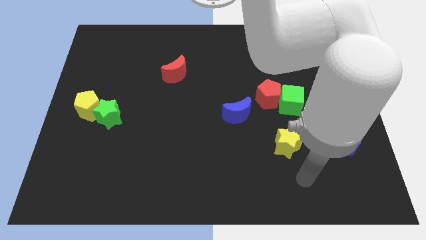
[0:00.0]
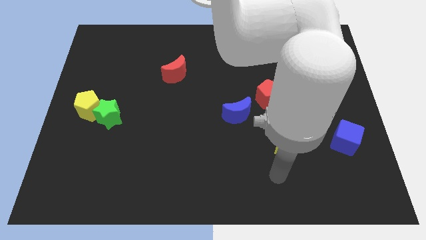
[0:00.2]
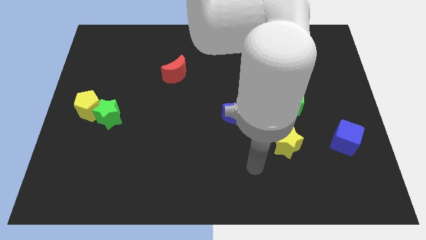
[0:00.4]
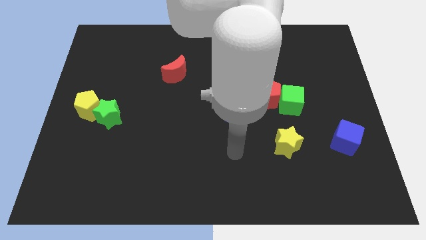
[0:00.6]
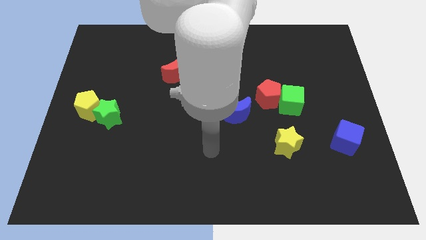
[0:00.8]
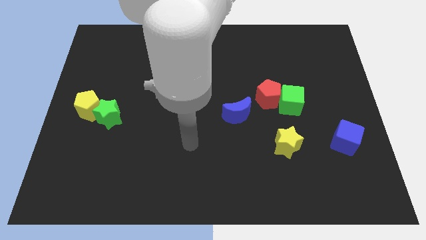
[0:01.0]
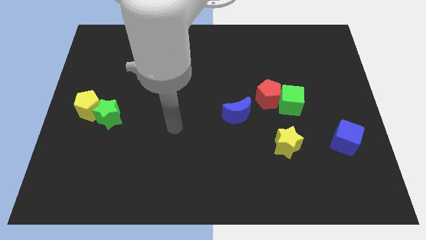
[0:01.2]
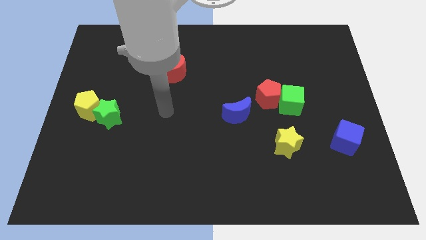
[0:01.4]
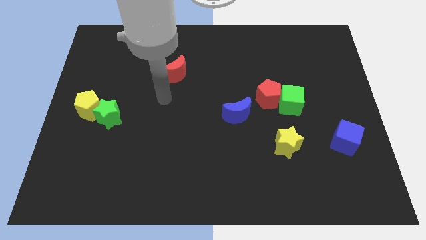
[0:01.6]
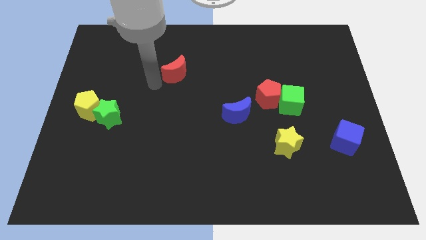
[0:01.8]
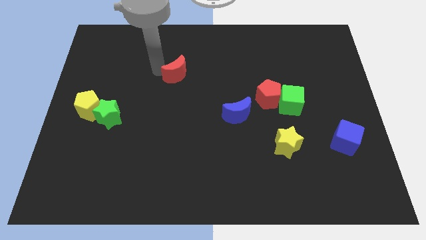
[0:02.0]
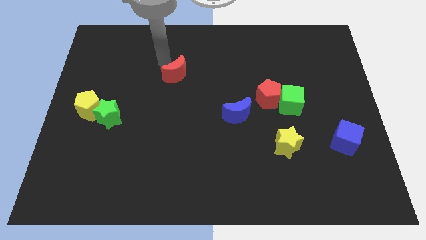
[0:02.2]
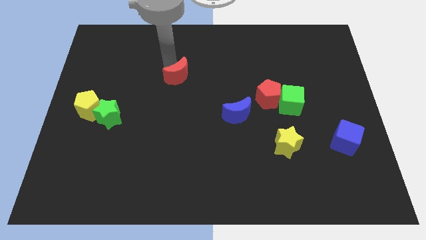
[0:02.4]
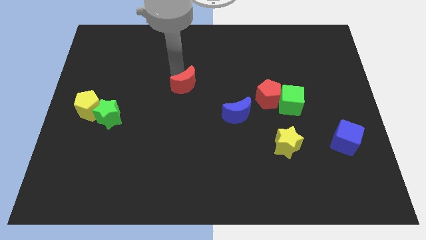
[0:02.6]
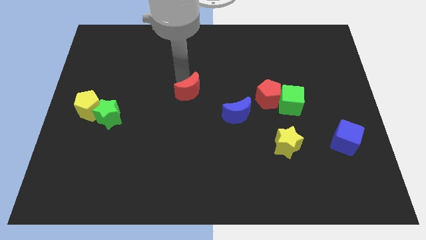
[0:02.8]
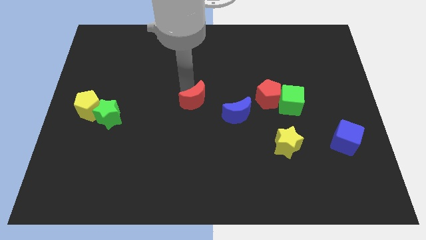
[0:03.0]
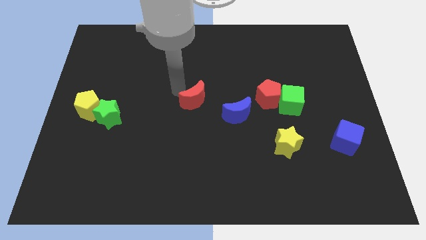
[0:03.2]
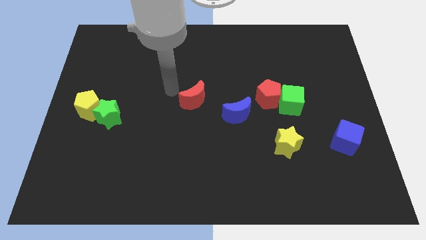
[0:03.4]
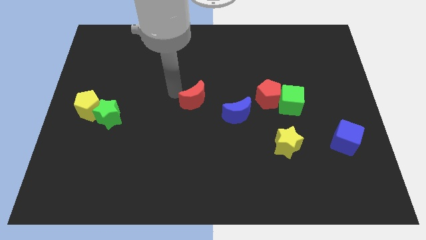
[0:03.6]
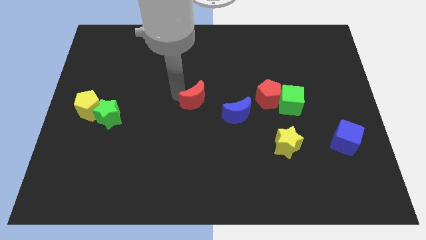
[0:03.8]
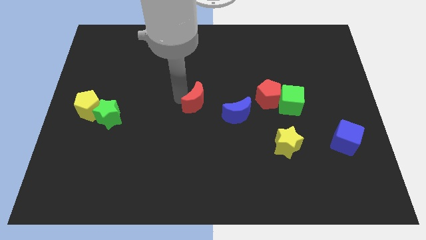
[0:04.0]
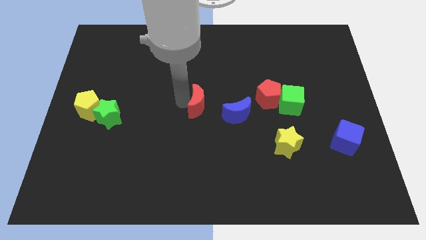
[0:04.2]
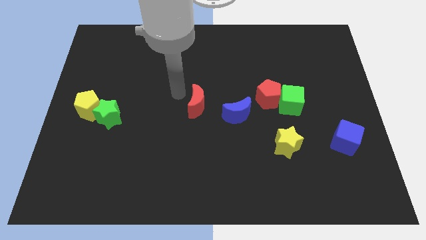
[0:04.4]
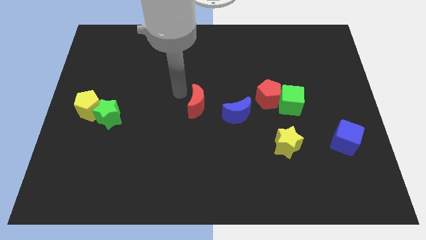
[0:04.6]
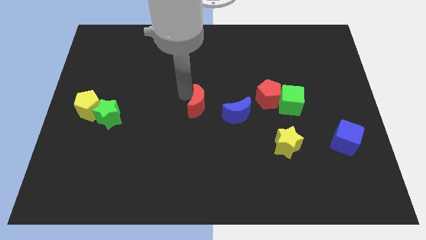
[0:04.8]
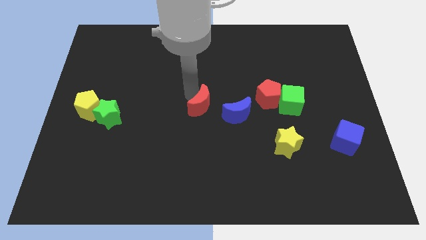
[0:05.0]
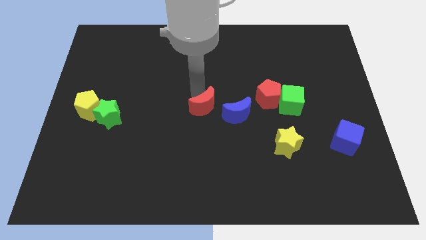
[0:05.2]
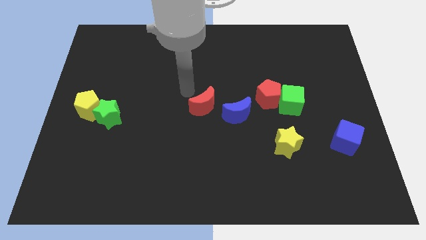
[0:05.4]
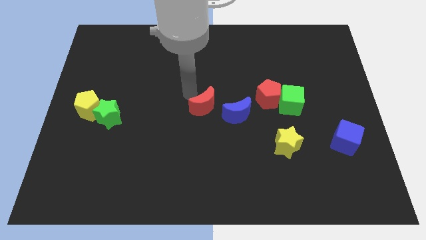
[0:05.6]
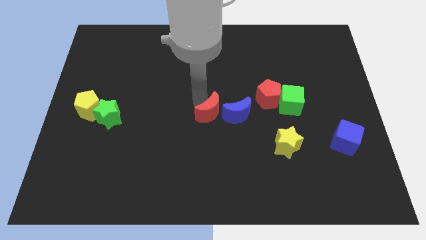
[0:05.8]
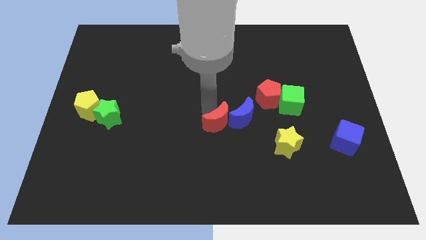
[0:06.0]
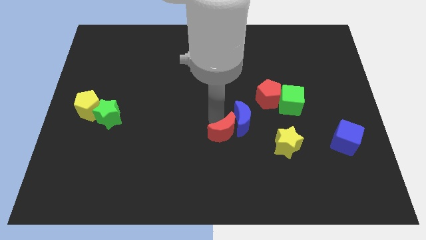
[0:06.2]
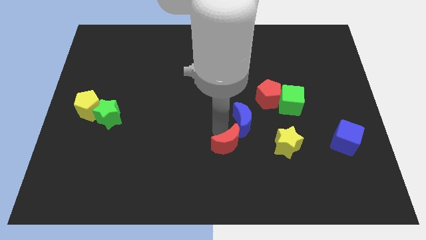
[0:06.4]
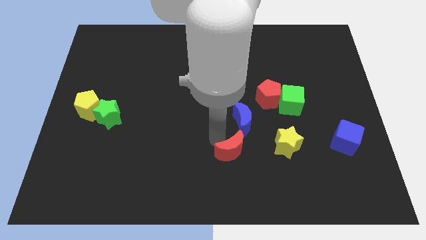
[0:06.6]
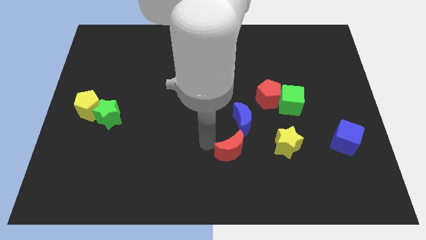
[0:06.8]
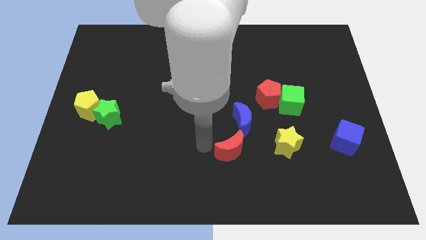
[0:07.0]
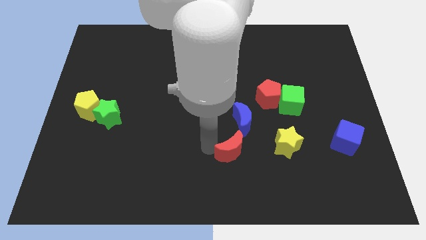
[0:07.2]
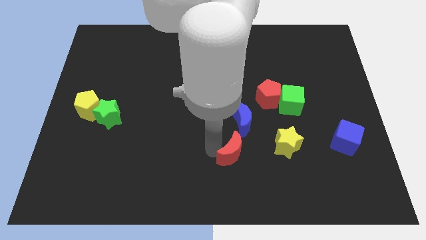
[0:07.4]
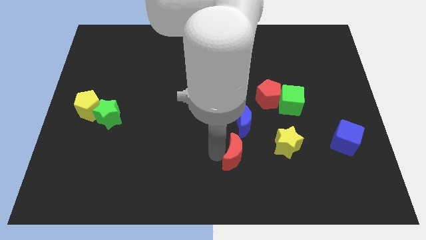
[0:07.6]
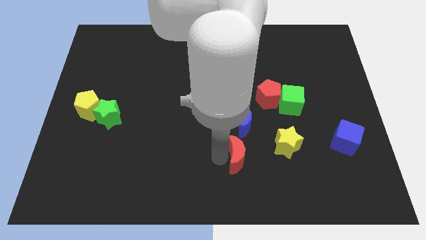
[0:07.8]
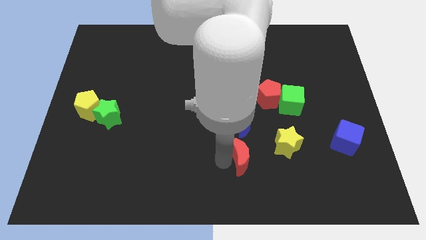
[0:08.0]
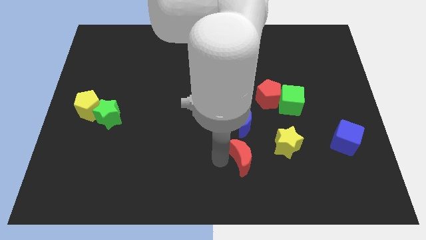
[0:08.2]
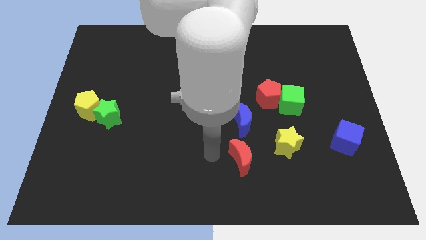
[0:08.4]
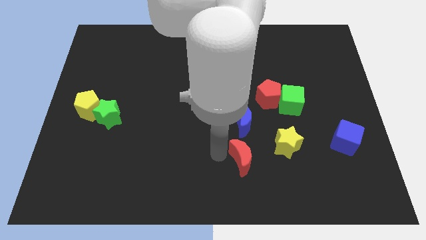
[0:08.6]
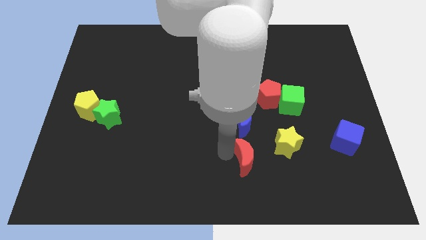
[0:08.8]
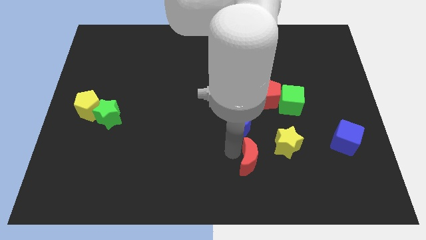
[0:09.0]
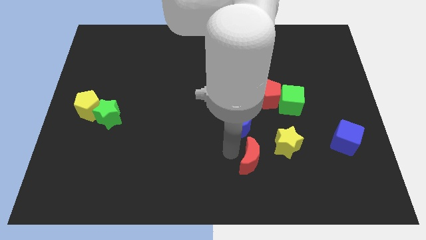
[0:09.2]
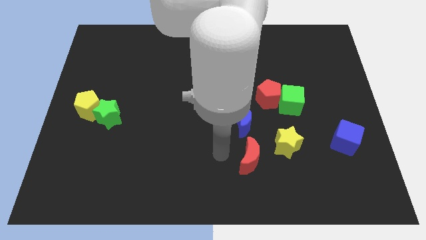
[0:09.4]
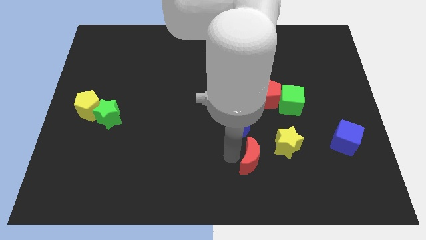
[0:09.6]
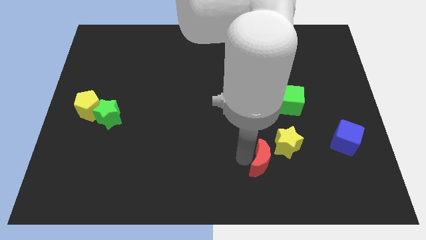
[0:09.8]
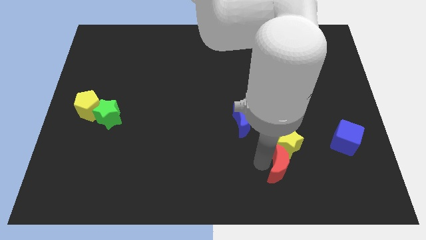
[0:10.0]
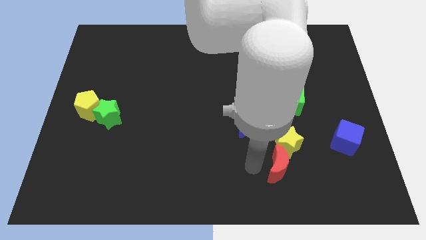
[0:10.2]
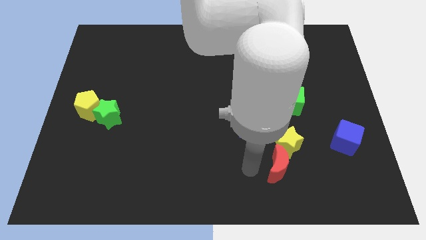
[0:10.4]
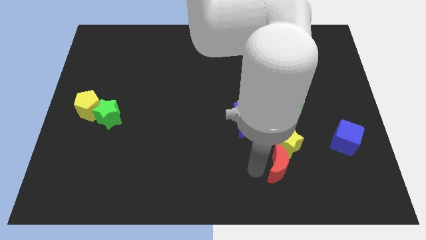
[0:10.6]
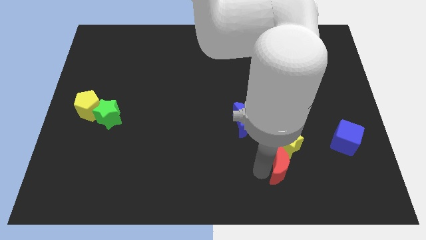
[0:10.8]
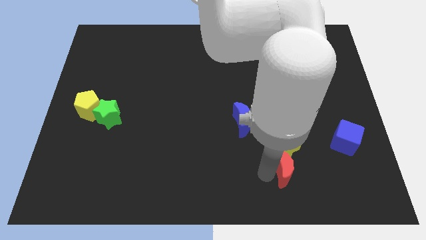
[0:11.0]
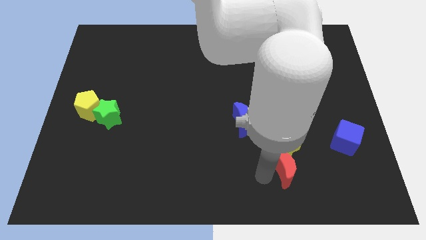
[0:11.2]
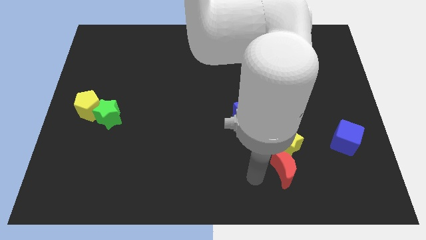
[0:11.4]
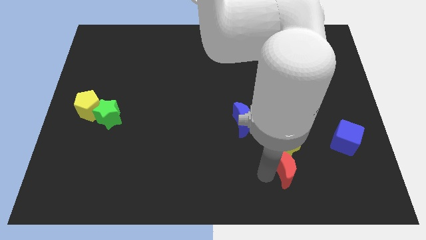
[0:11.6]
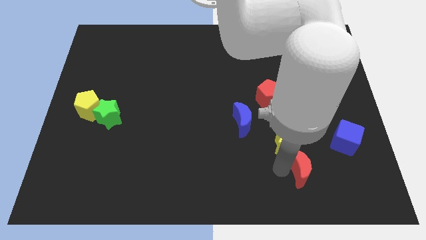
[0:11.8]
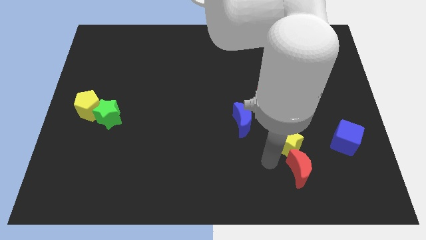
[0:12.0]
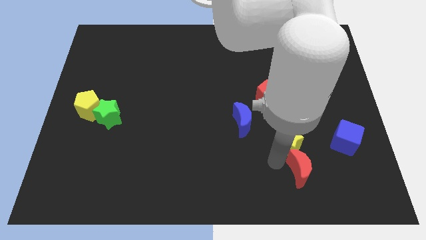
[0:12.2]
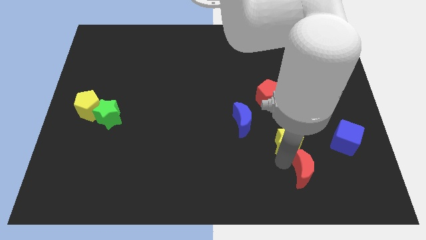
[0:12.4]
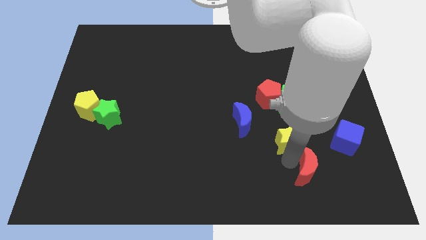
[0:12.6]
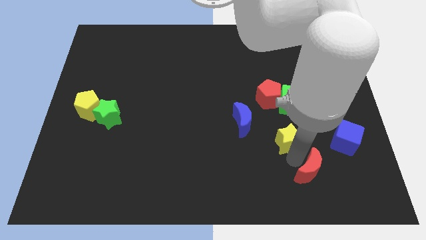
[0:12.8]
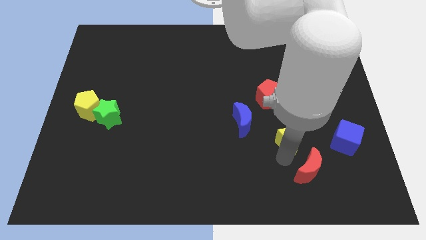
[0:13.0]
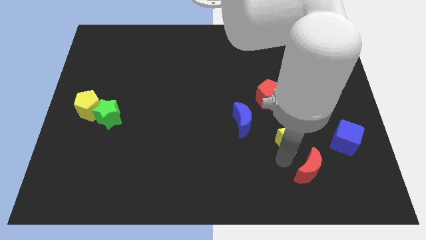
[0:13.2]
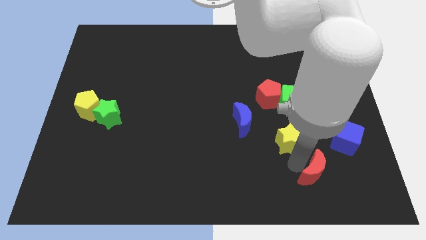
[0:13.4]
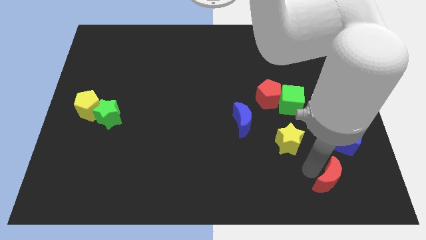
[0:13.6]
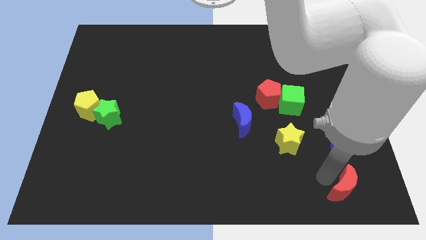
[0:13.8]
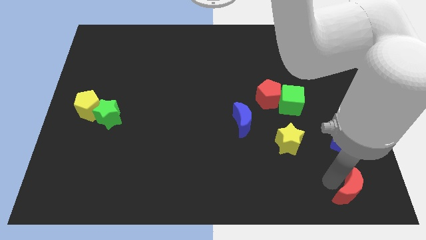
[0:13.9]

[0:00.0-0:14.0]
move the red moon to the bottom right
